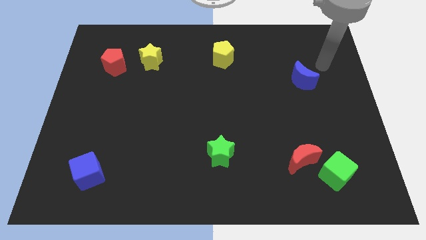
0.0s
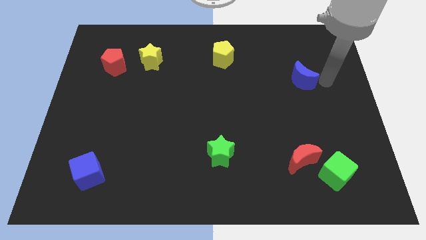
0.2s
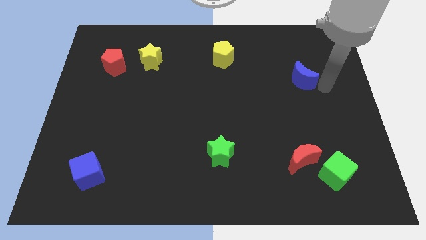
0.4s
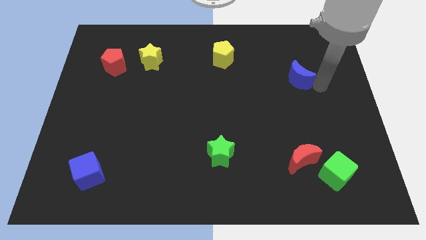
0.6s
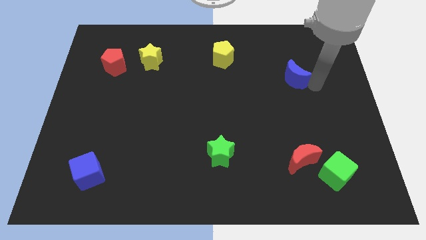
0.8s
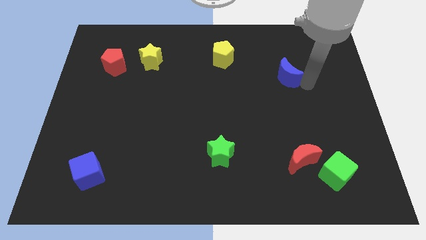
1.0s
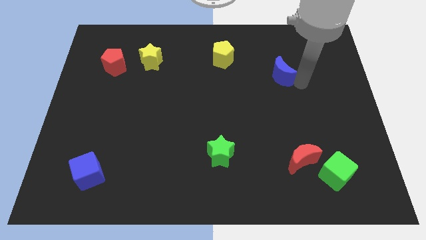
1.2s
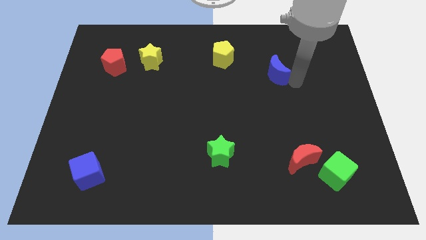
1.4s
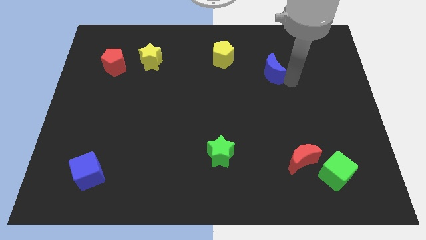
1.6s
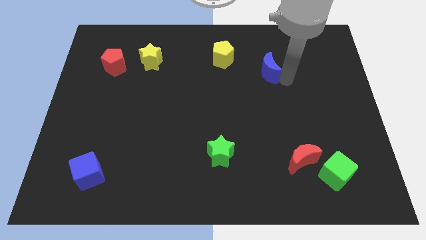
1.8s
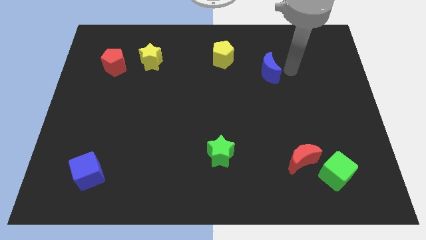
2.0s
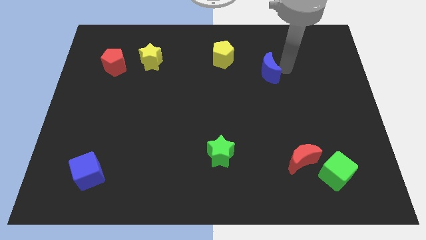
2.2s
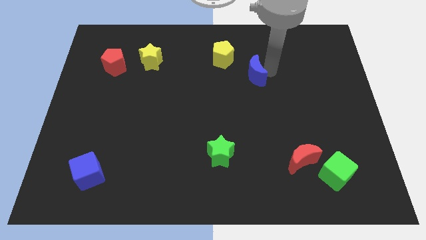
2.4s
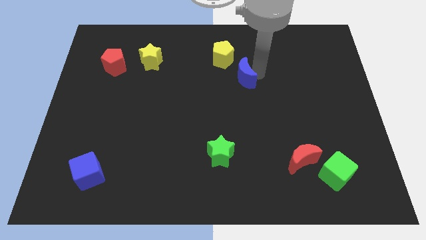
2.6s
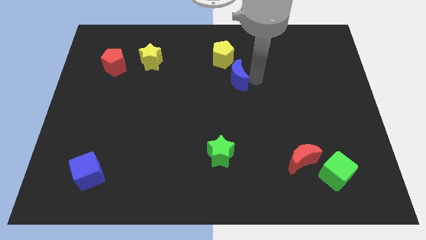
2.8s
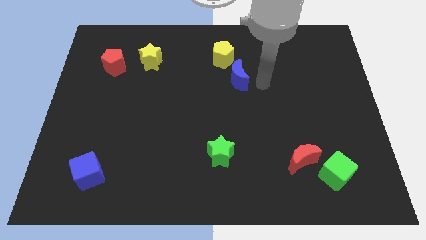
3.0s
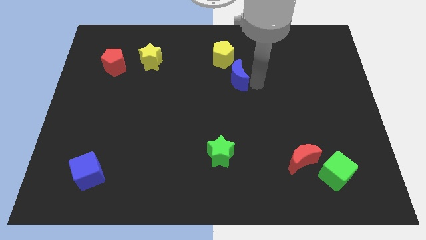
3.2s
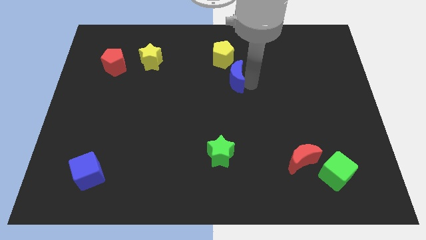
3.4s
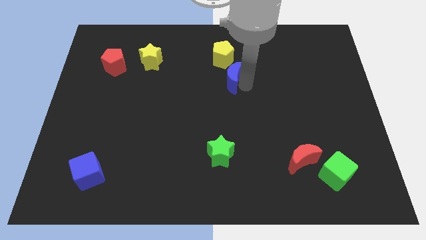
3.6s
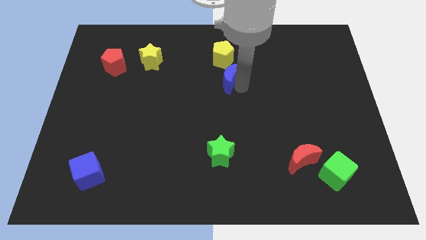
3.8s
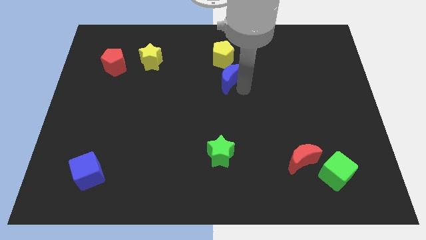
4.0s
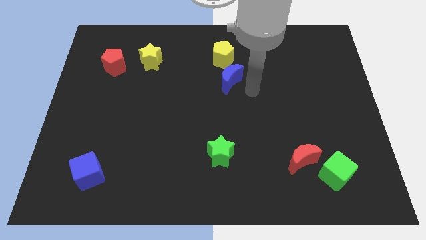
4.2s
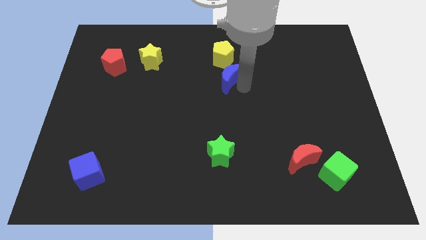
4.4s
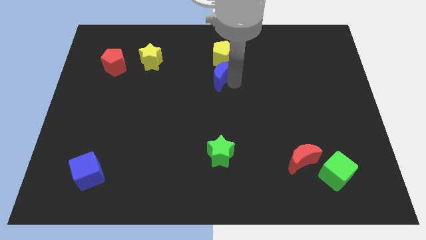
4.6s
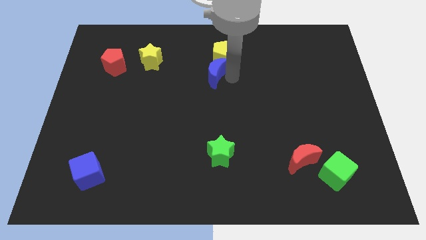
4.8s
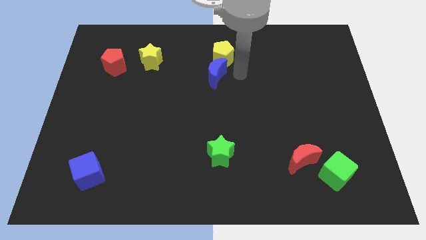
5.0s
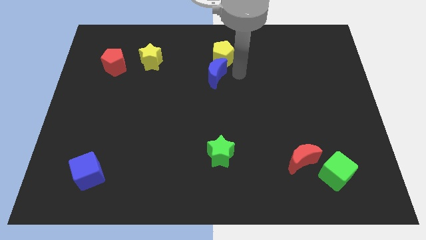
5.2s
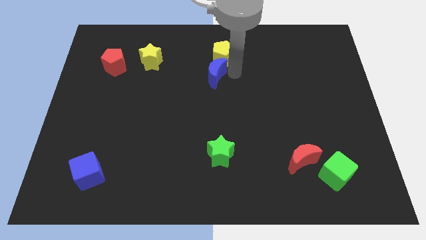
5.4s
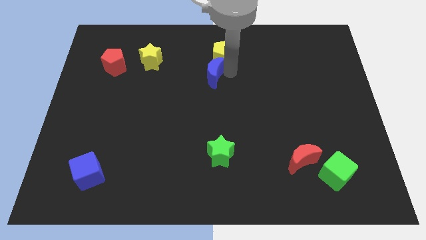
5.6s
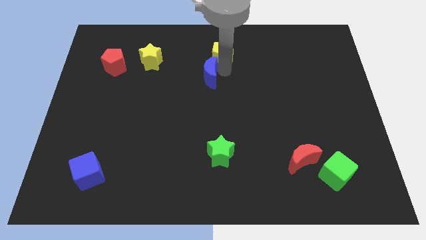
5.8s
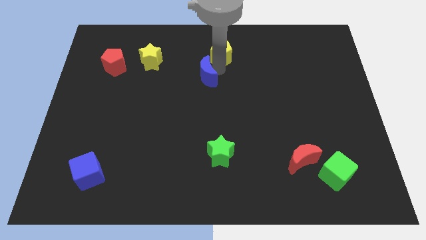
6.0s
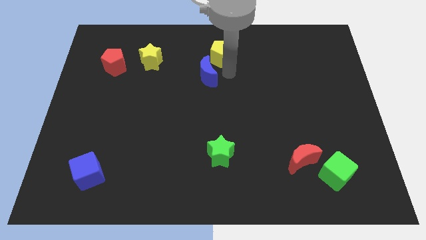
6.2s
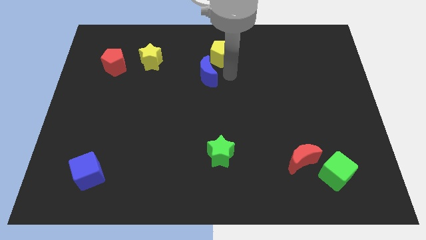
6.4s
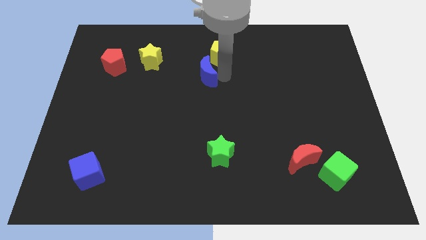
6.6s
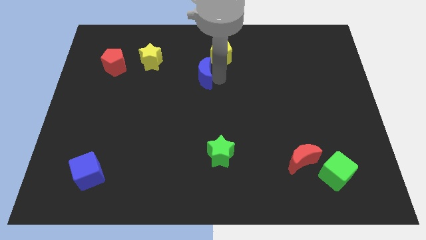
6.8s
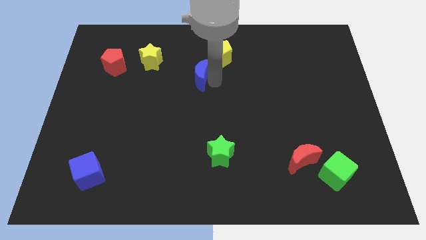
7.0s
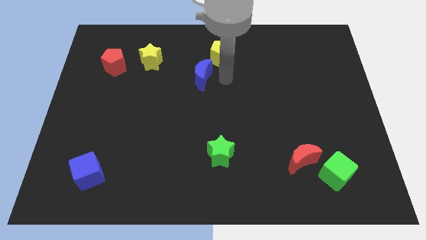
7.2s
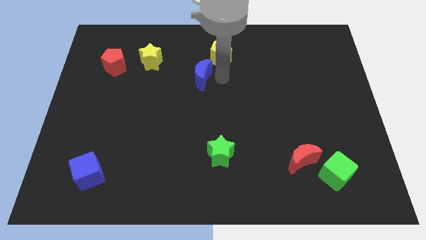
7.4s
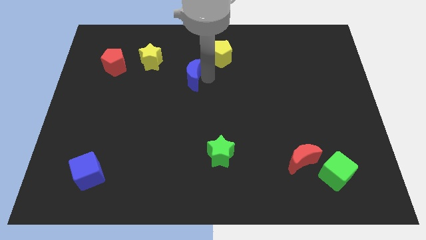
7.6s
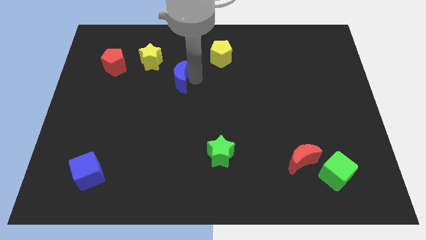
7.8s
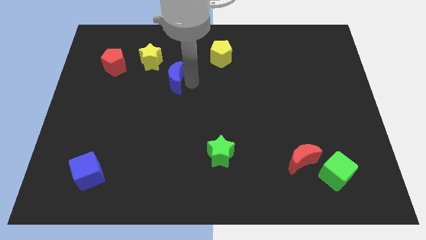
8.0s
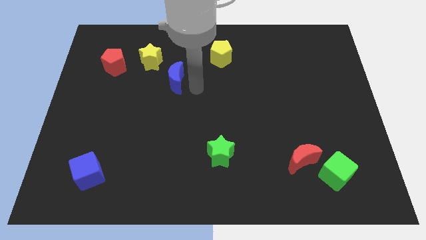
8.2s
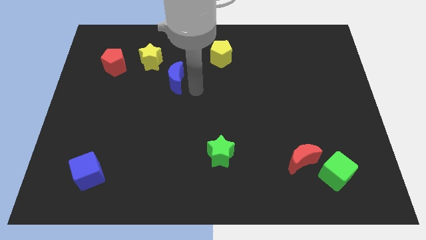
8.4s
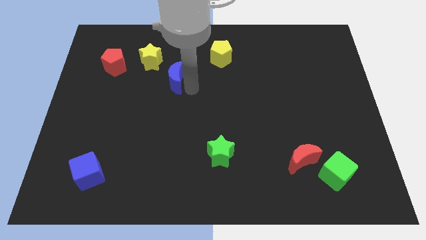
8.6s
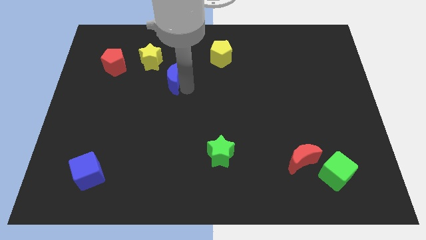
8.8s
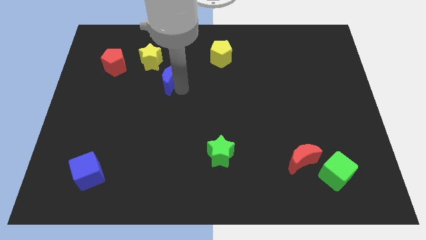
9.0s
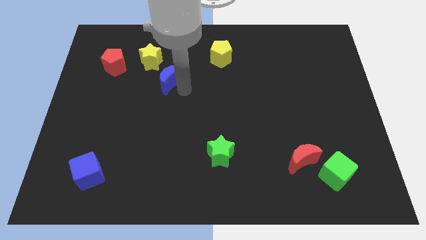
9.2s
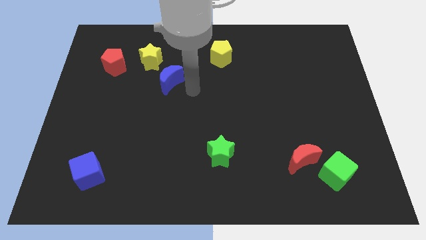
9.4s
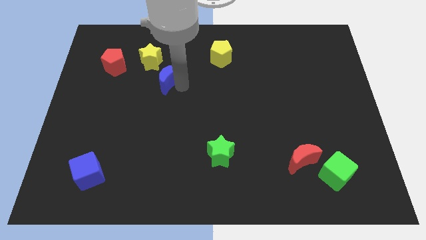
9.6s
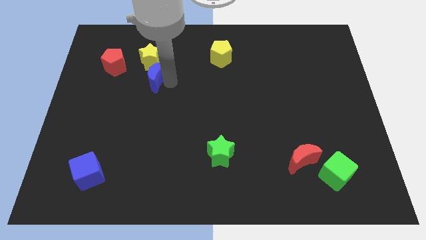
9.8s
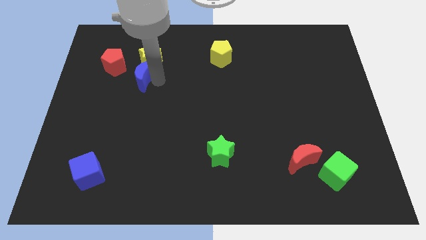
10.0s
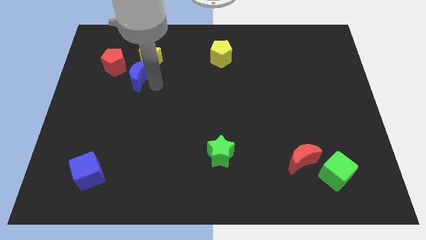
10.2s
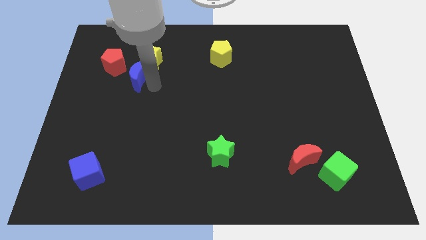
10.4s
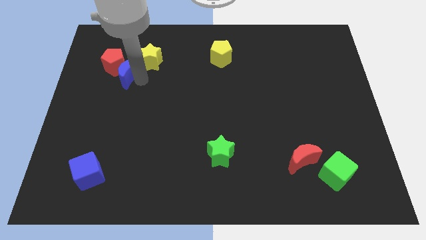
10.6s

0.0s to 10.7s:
move the blue moon next to the red pentagon

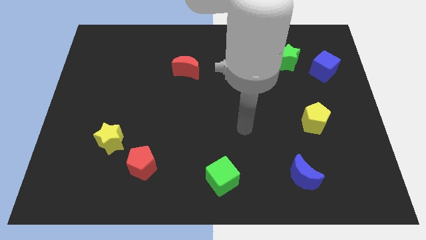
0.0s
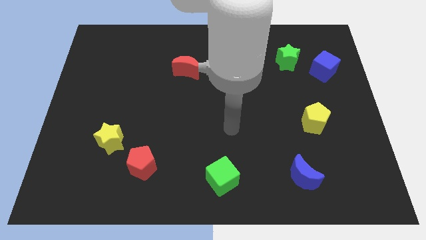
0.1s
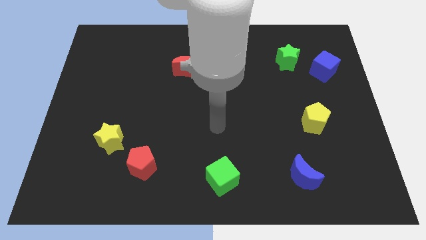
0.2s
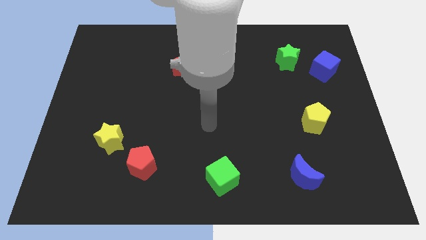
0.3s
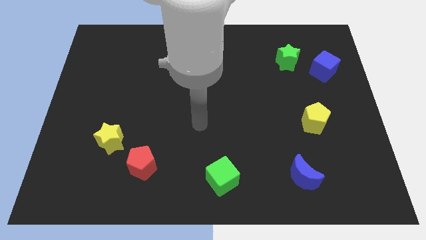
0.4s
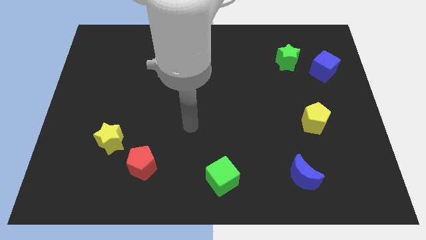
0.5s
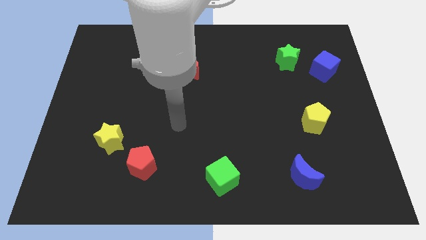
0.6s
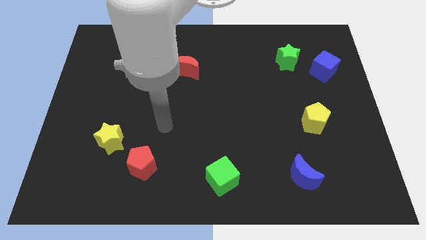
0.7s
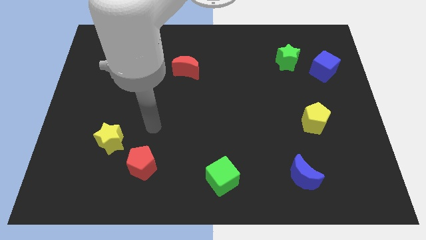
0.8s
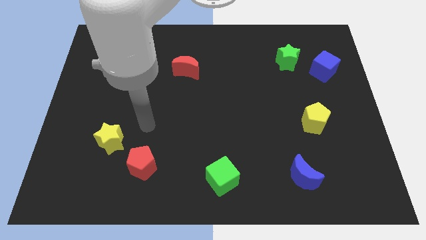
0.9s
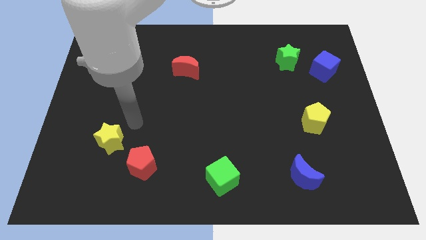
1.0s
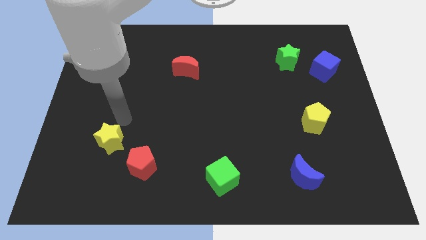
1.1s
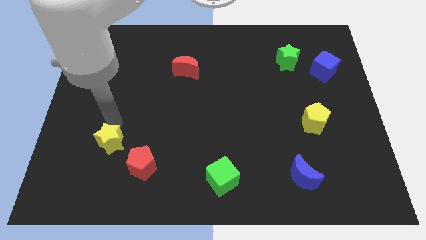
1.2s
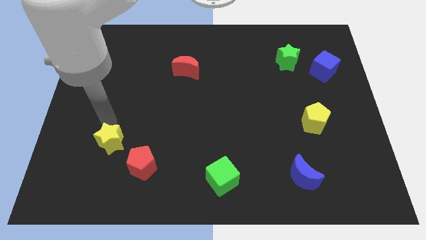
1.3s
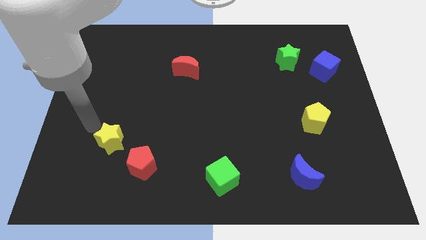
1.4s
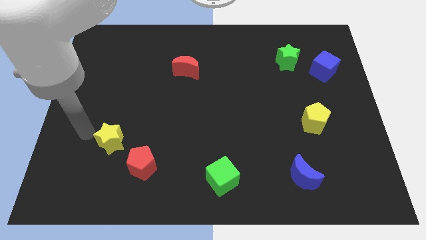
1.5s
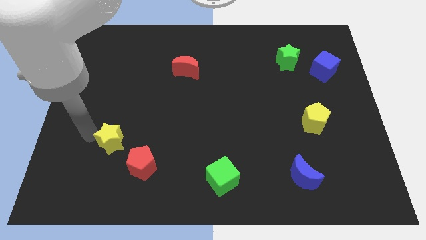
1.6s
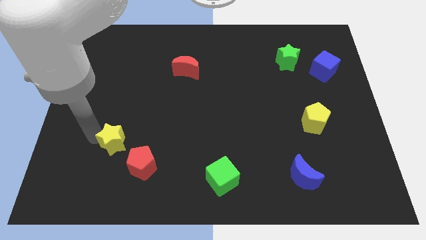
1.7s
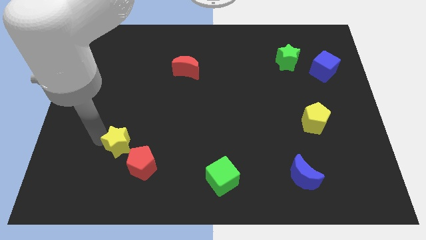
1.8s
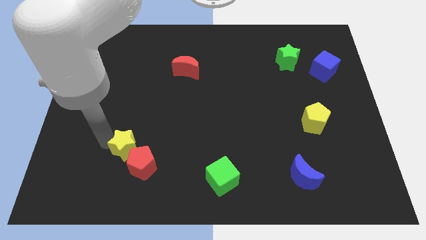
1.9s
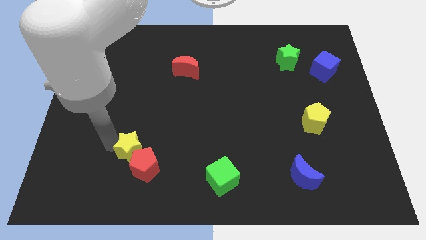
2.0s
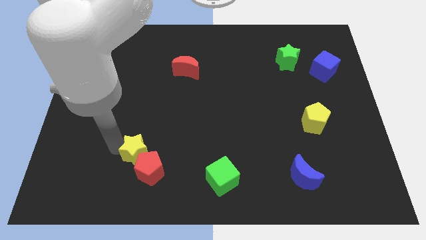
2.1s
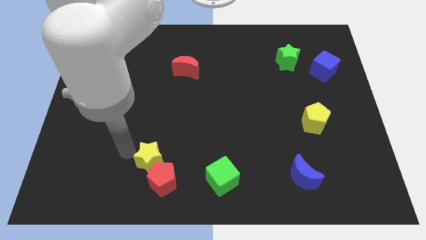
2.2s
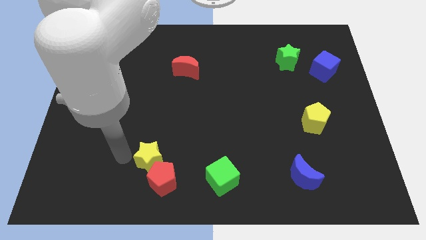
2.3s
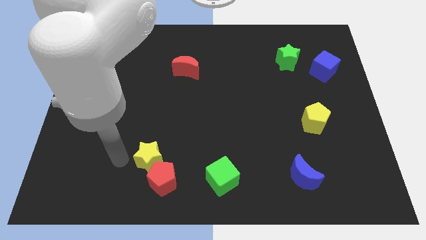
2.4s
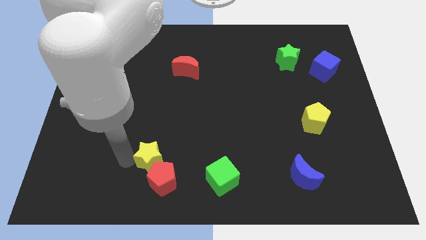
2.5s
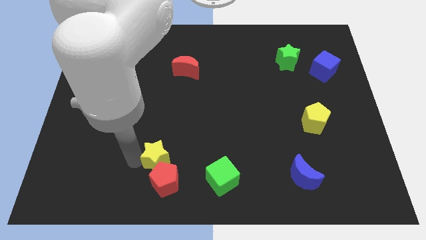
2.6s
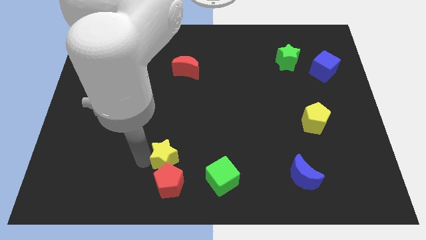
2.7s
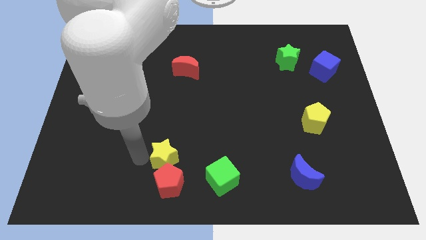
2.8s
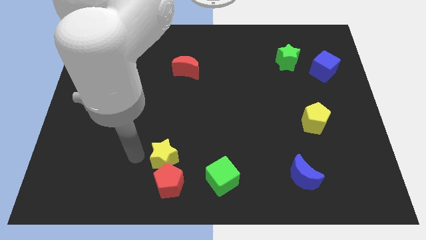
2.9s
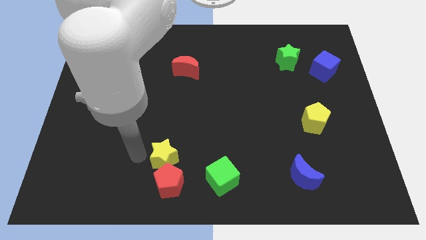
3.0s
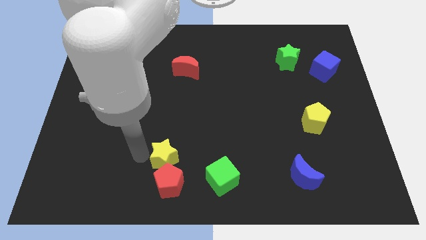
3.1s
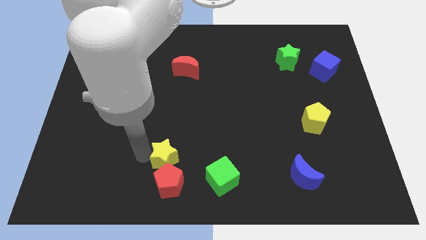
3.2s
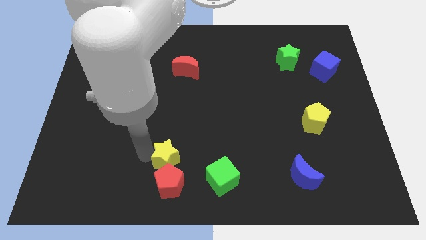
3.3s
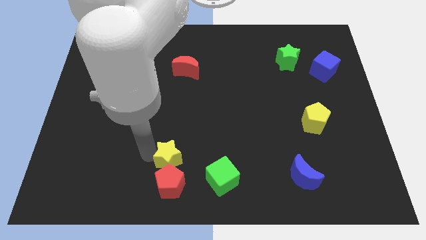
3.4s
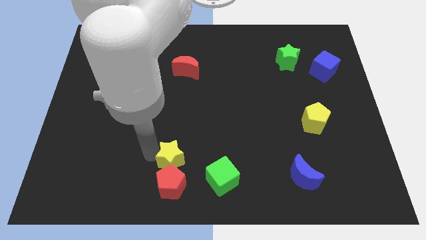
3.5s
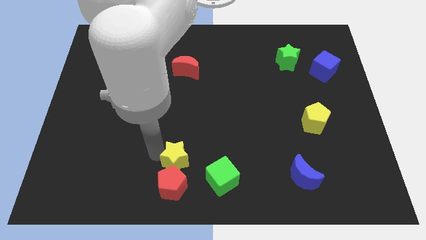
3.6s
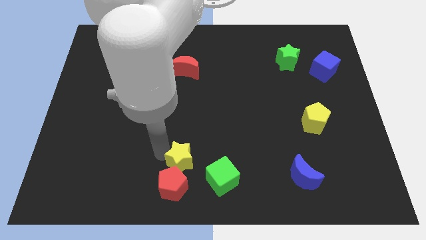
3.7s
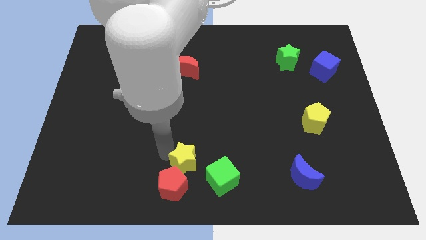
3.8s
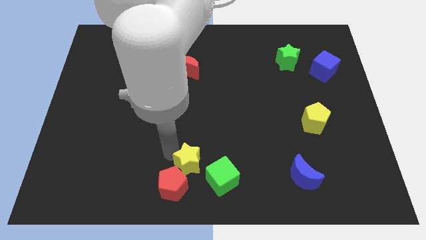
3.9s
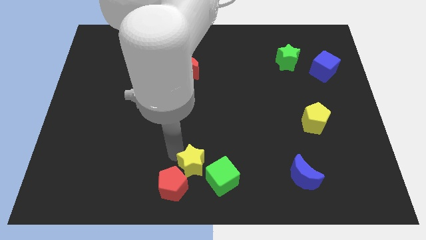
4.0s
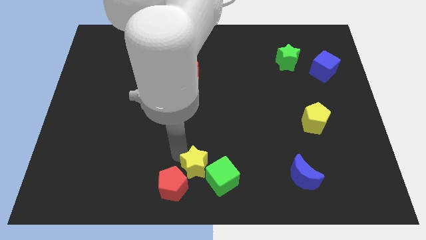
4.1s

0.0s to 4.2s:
push the yellow star to the green cube
